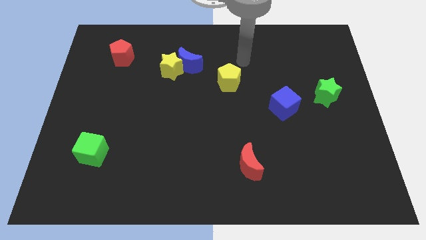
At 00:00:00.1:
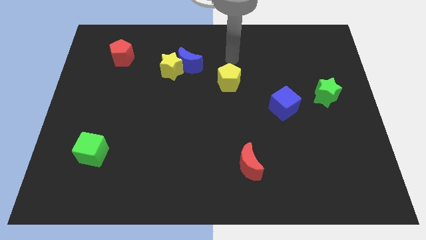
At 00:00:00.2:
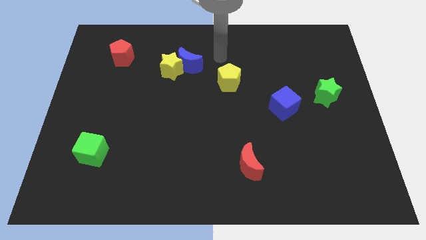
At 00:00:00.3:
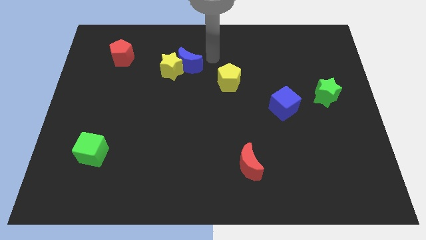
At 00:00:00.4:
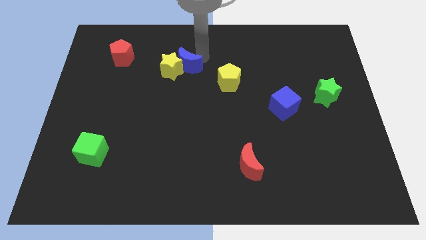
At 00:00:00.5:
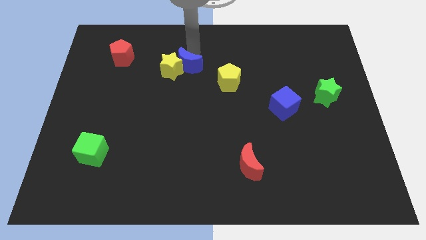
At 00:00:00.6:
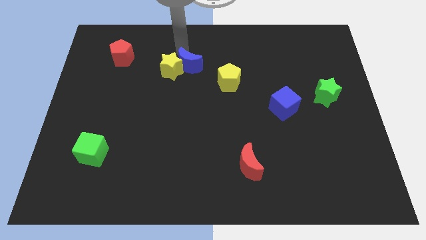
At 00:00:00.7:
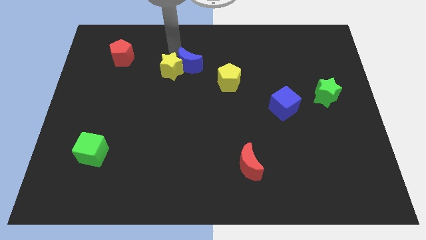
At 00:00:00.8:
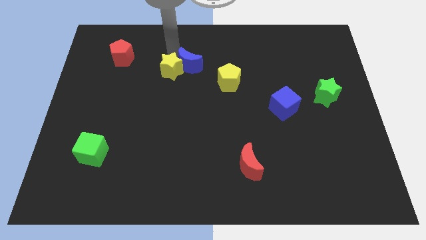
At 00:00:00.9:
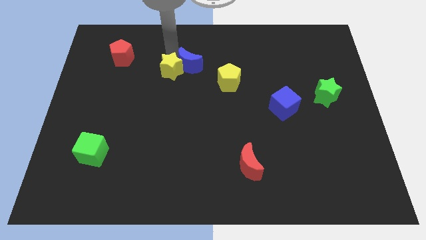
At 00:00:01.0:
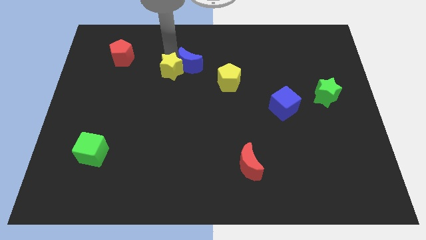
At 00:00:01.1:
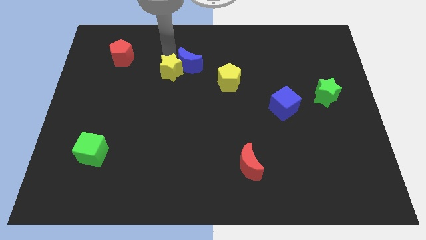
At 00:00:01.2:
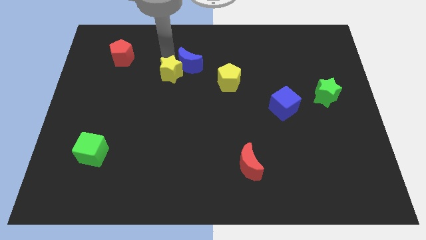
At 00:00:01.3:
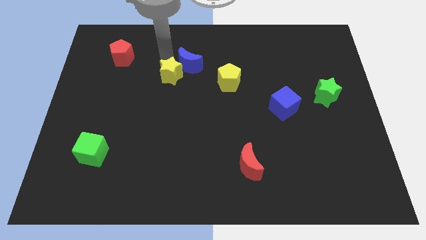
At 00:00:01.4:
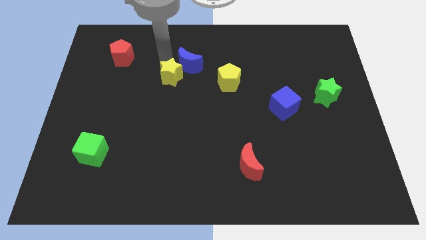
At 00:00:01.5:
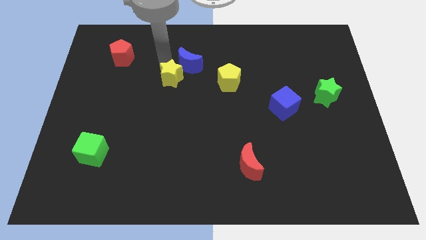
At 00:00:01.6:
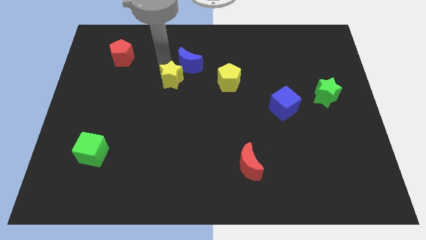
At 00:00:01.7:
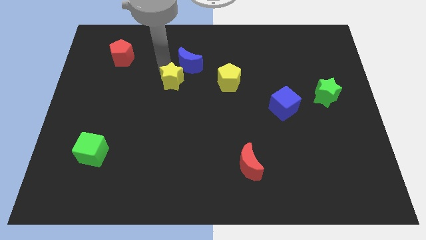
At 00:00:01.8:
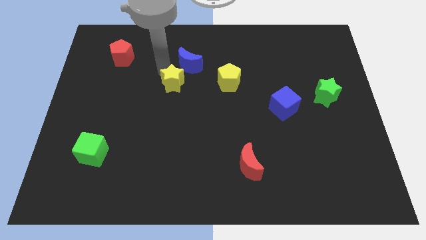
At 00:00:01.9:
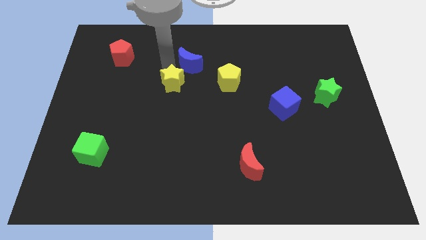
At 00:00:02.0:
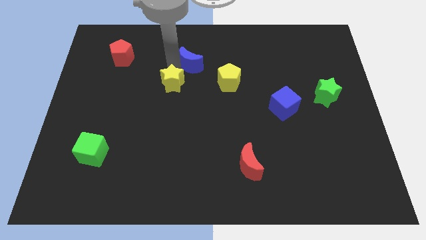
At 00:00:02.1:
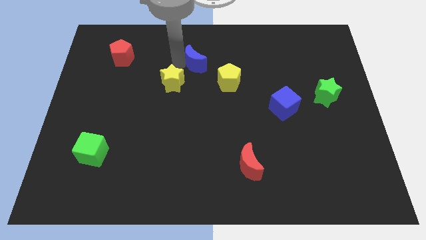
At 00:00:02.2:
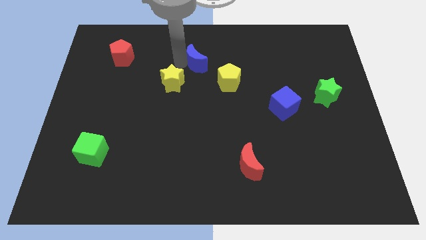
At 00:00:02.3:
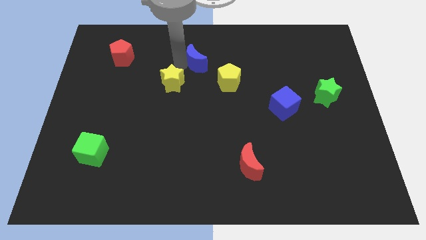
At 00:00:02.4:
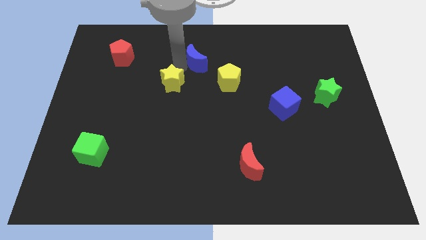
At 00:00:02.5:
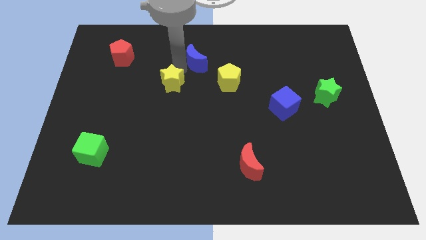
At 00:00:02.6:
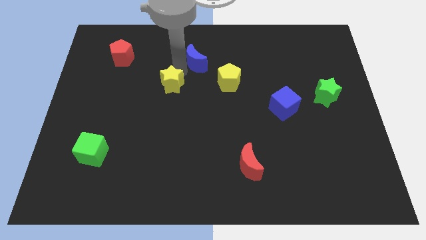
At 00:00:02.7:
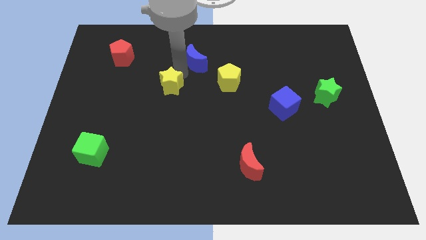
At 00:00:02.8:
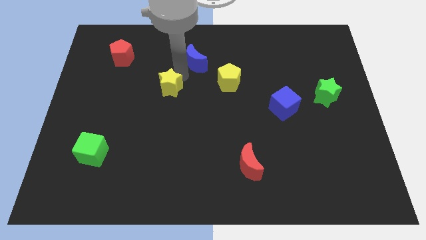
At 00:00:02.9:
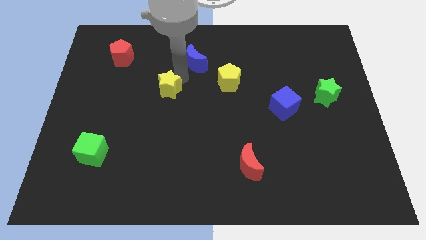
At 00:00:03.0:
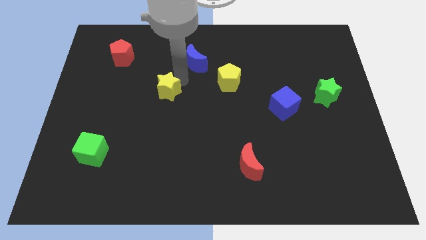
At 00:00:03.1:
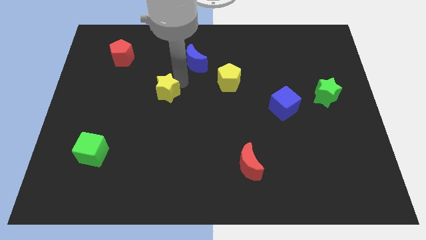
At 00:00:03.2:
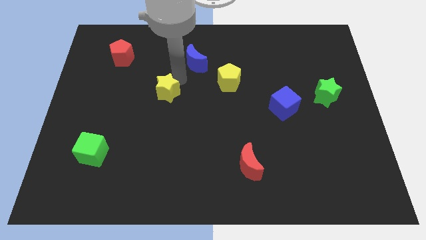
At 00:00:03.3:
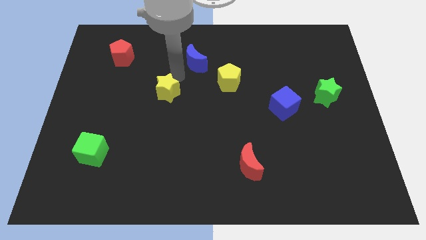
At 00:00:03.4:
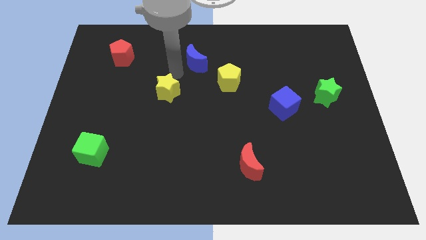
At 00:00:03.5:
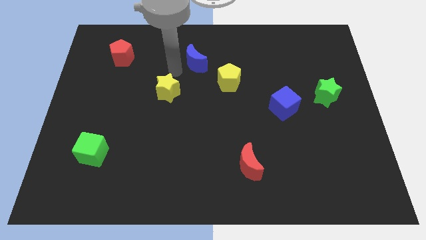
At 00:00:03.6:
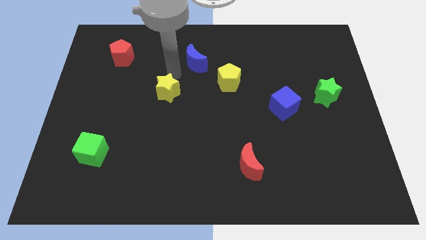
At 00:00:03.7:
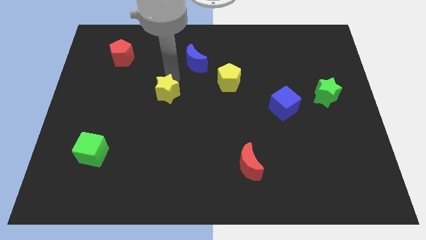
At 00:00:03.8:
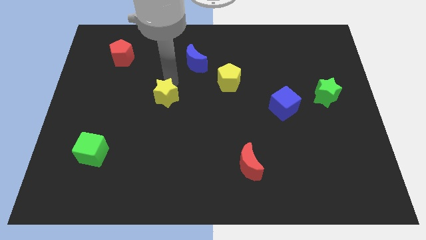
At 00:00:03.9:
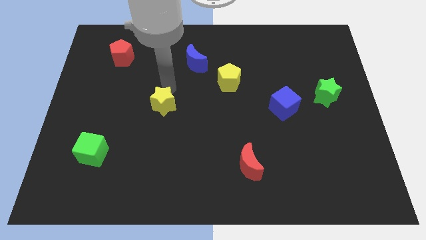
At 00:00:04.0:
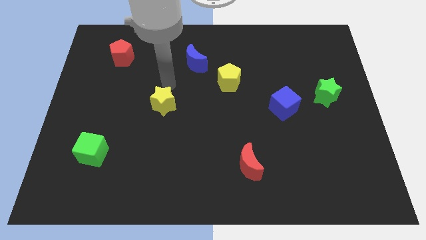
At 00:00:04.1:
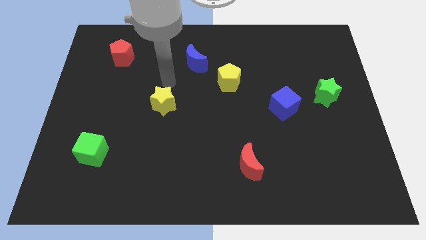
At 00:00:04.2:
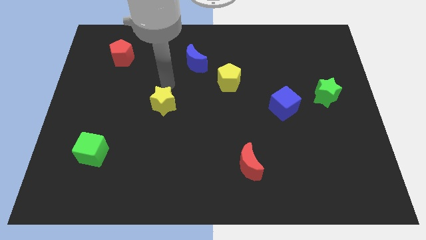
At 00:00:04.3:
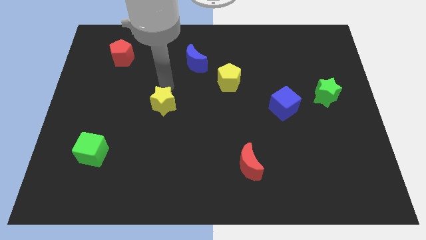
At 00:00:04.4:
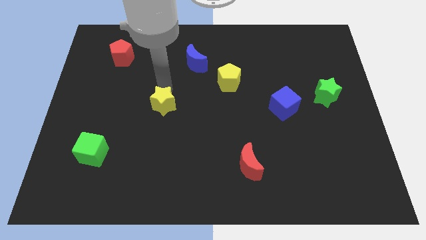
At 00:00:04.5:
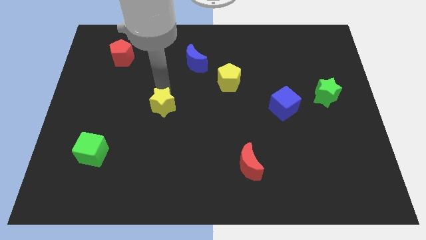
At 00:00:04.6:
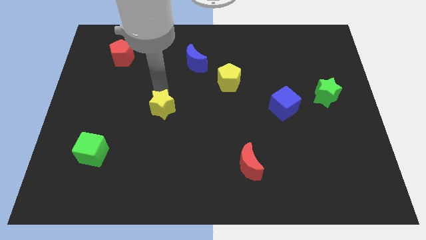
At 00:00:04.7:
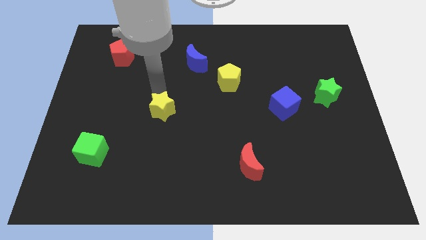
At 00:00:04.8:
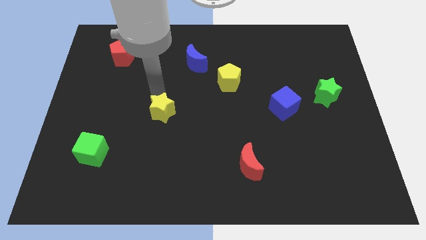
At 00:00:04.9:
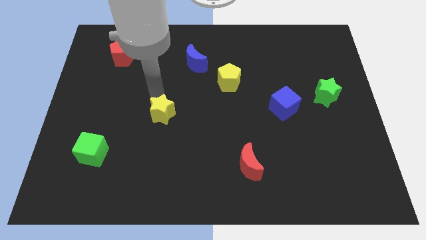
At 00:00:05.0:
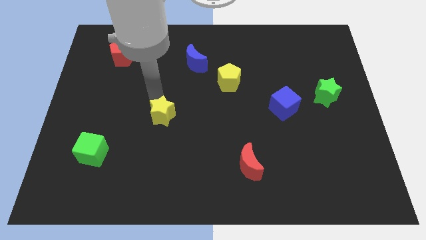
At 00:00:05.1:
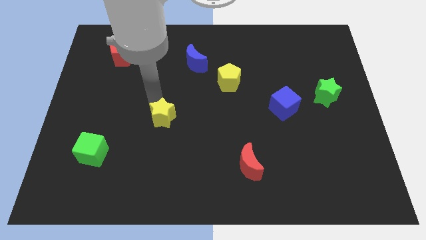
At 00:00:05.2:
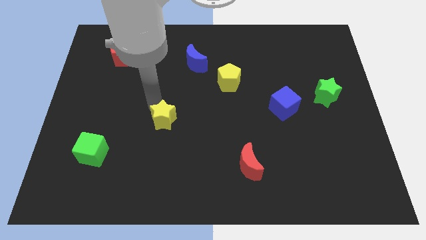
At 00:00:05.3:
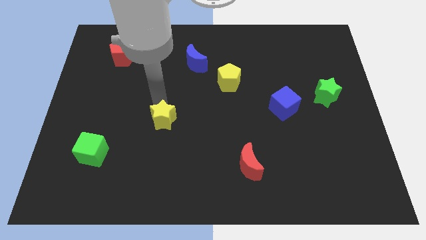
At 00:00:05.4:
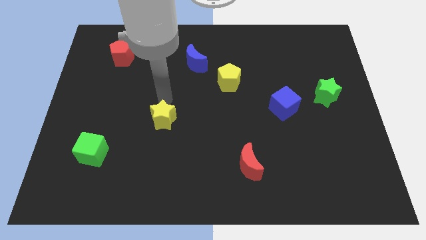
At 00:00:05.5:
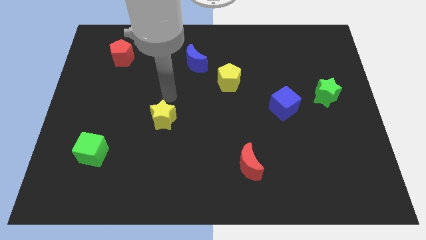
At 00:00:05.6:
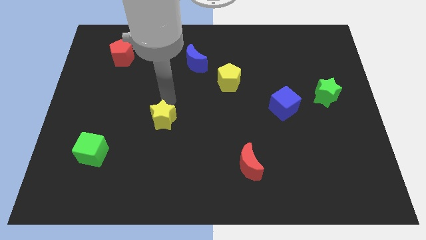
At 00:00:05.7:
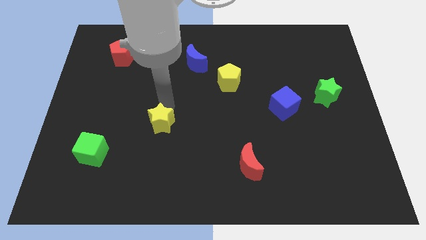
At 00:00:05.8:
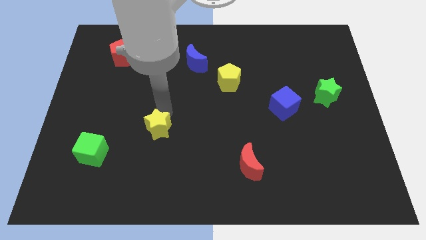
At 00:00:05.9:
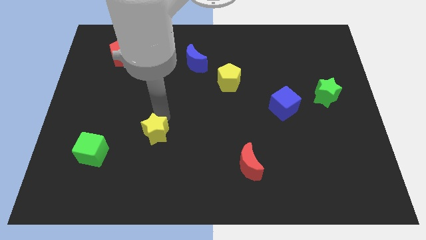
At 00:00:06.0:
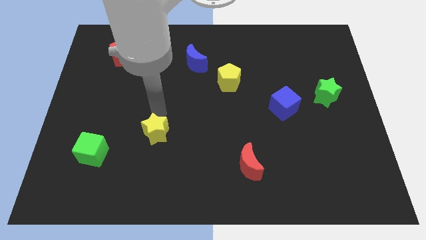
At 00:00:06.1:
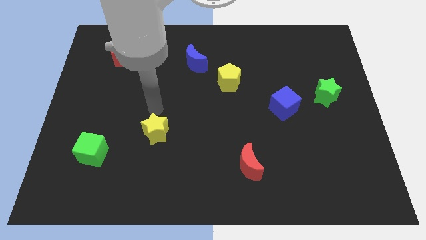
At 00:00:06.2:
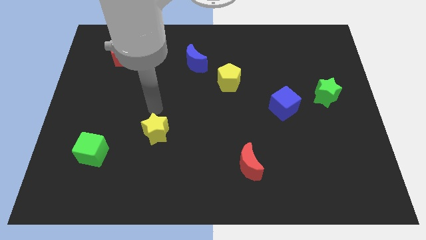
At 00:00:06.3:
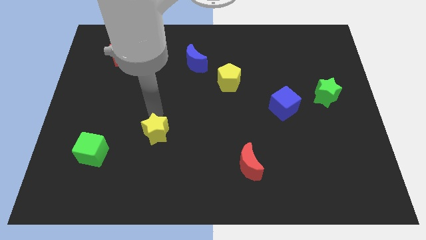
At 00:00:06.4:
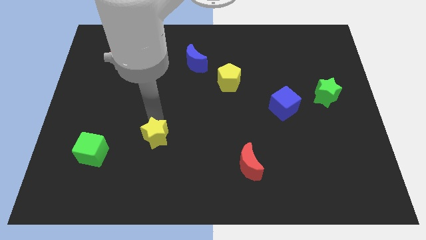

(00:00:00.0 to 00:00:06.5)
slide the yellow star down

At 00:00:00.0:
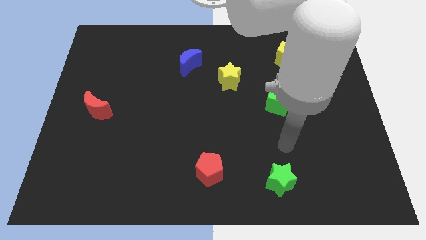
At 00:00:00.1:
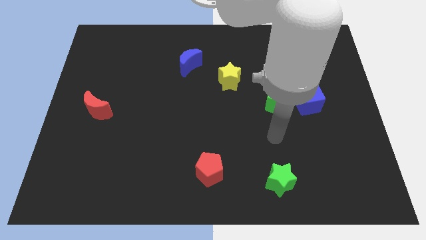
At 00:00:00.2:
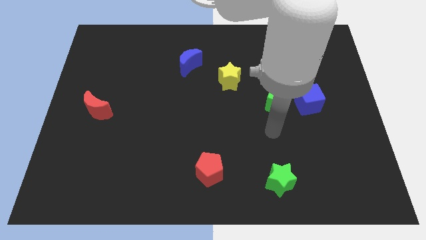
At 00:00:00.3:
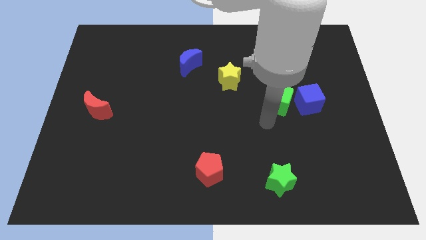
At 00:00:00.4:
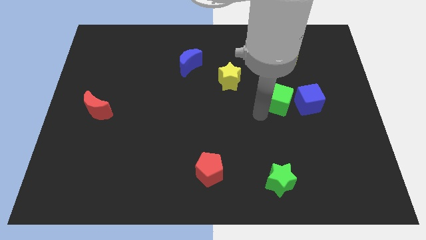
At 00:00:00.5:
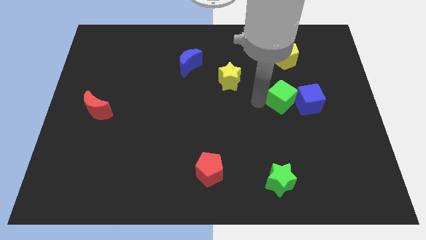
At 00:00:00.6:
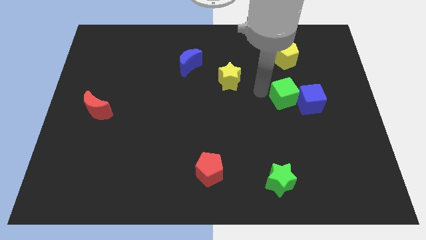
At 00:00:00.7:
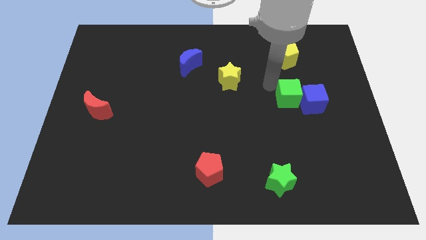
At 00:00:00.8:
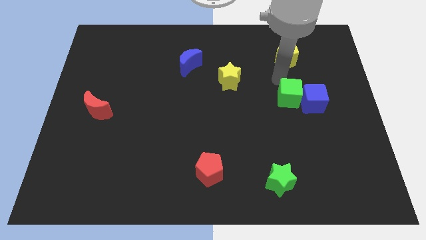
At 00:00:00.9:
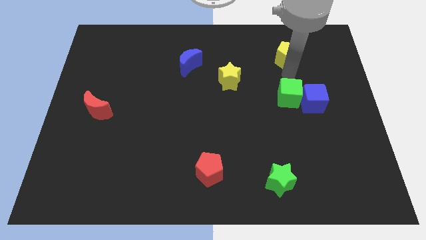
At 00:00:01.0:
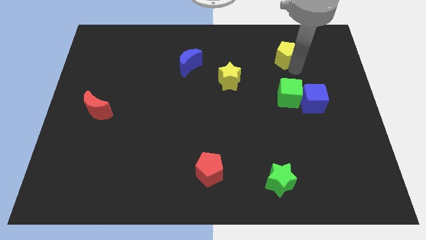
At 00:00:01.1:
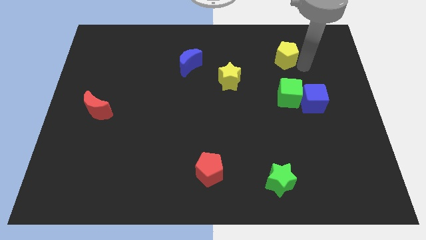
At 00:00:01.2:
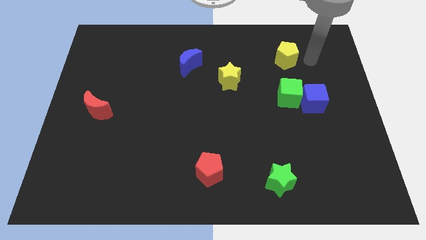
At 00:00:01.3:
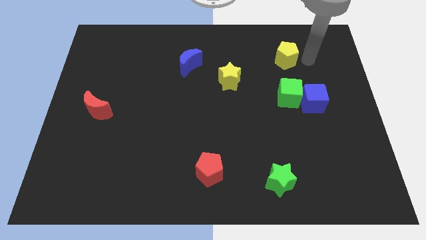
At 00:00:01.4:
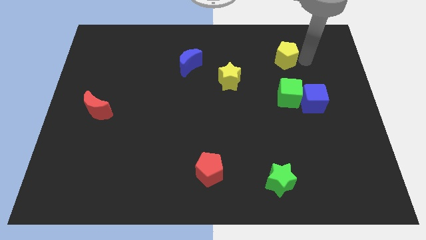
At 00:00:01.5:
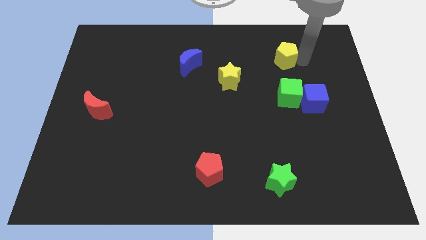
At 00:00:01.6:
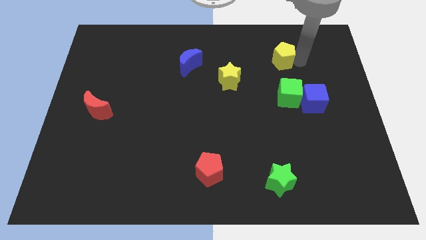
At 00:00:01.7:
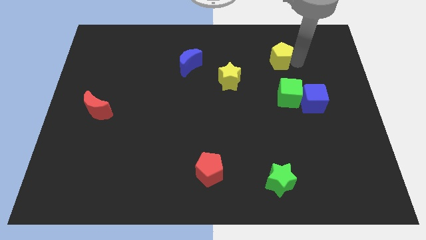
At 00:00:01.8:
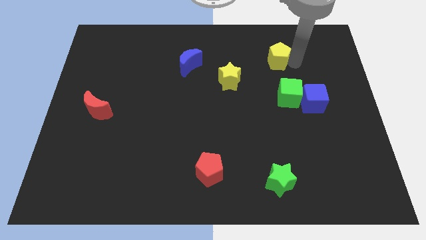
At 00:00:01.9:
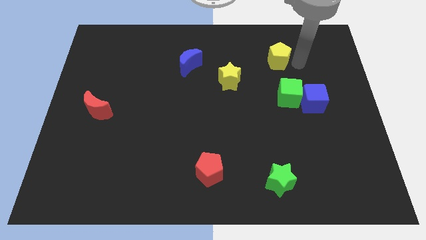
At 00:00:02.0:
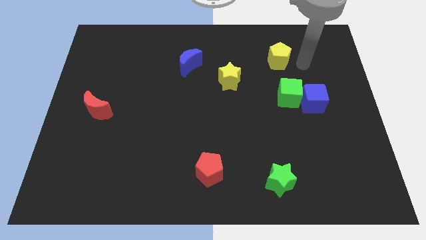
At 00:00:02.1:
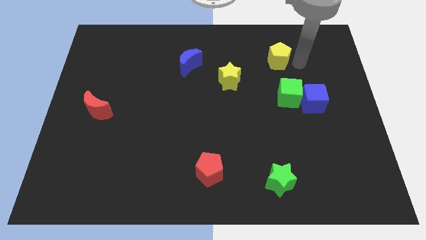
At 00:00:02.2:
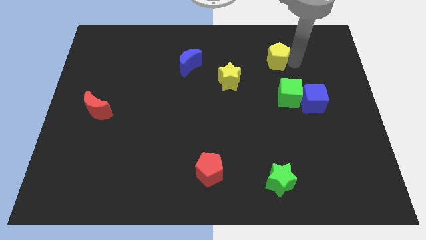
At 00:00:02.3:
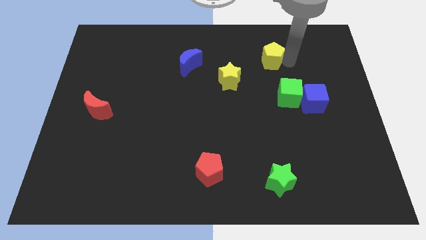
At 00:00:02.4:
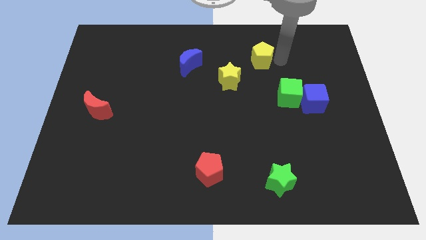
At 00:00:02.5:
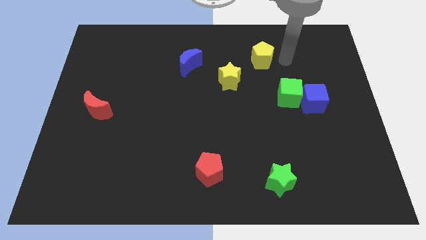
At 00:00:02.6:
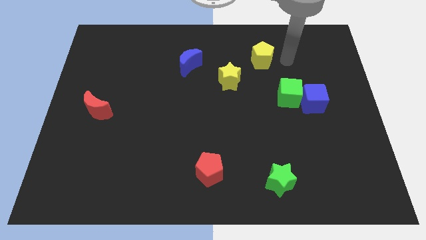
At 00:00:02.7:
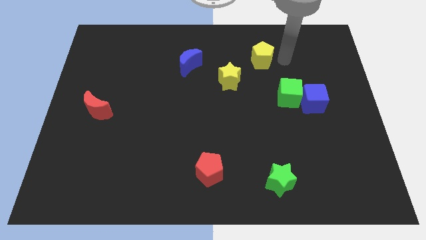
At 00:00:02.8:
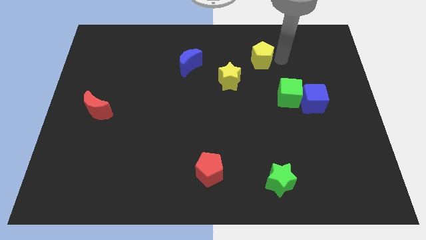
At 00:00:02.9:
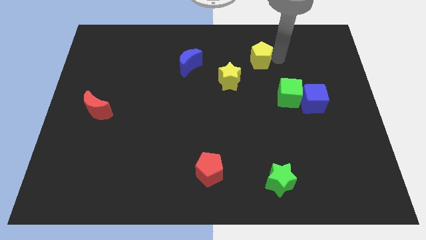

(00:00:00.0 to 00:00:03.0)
slightly move the yellow pentagon to the left
